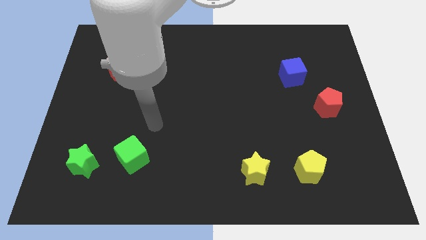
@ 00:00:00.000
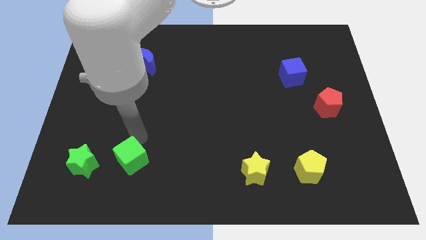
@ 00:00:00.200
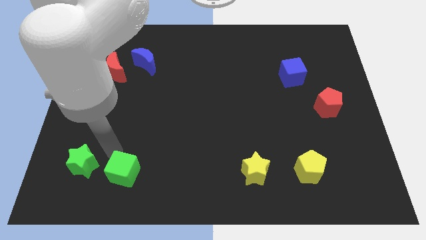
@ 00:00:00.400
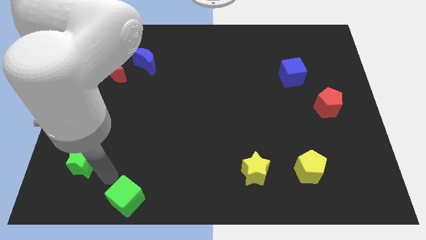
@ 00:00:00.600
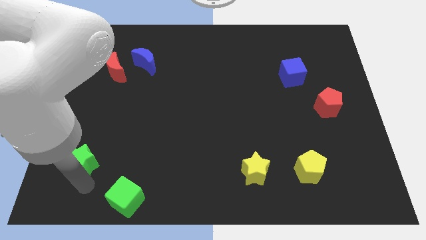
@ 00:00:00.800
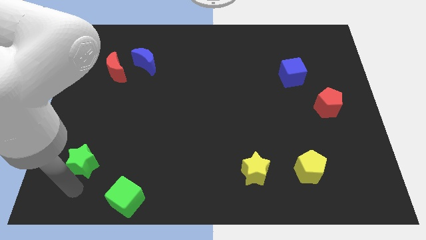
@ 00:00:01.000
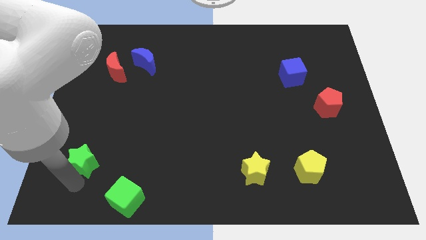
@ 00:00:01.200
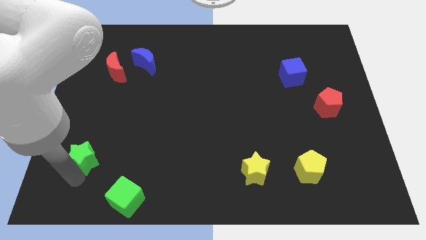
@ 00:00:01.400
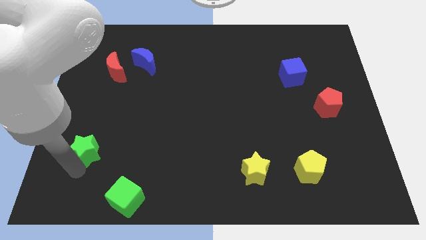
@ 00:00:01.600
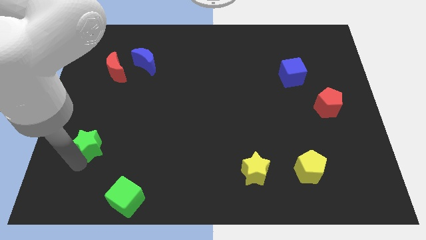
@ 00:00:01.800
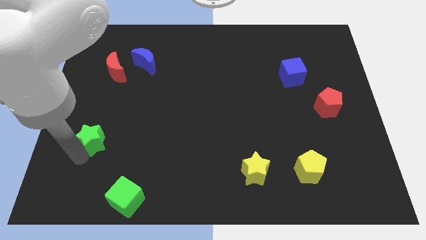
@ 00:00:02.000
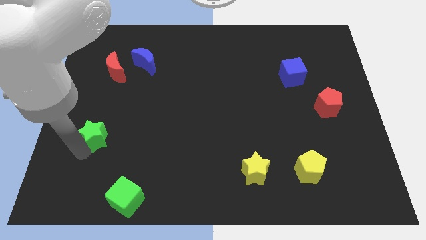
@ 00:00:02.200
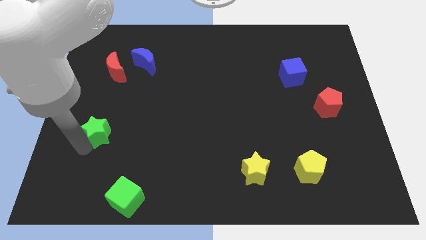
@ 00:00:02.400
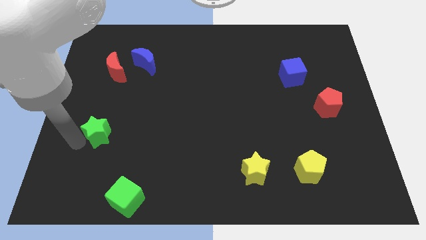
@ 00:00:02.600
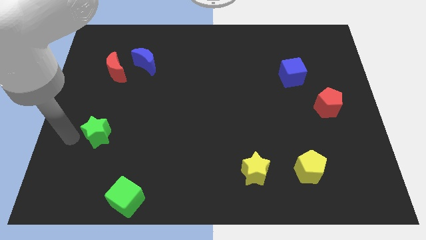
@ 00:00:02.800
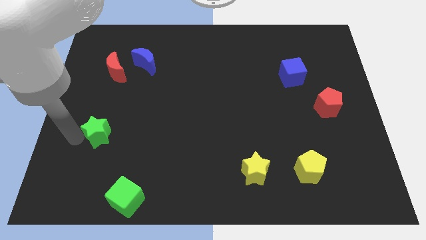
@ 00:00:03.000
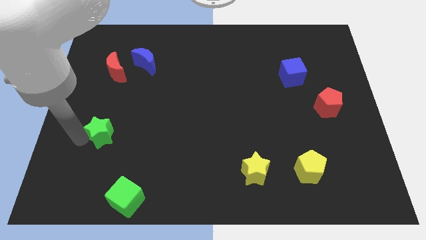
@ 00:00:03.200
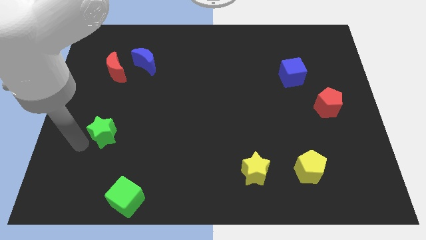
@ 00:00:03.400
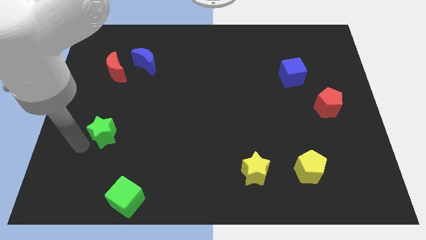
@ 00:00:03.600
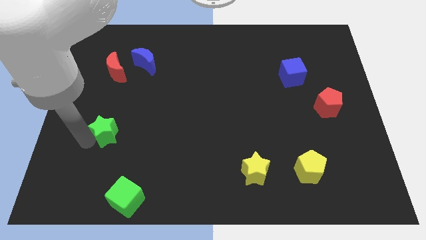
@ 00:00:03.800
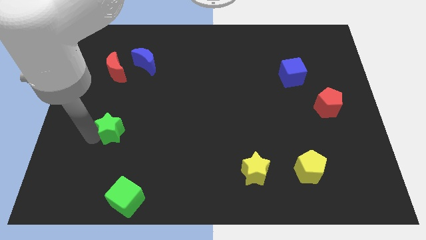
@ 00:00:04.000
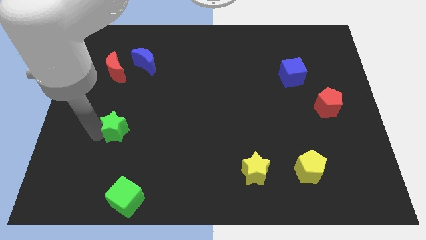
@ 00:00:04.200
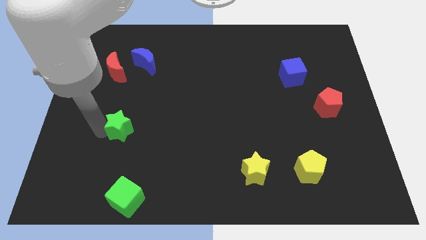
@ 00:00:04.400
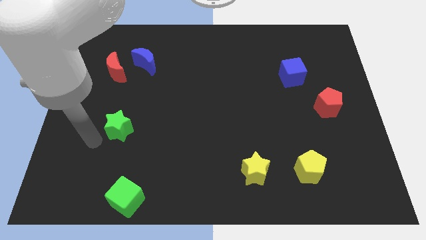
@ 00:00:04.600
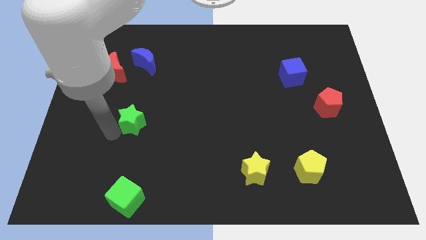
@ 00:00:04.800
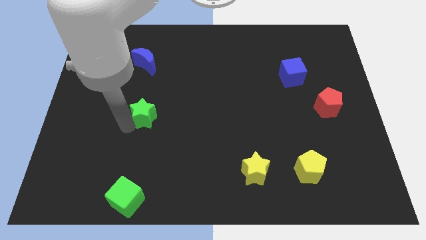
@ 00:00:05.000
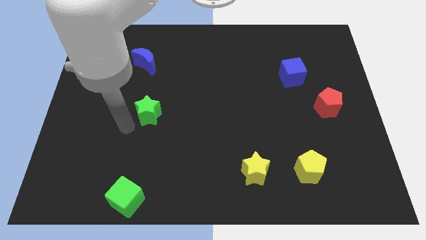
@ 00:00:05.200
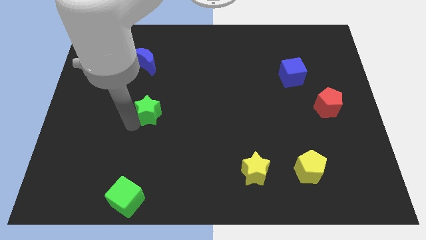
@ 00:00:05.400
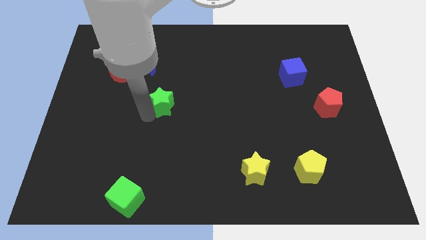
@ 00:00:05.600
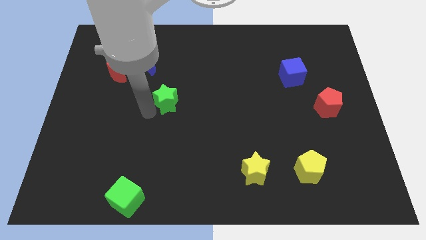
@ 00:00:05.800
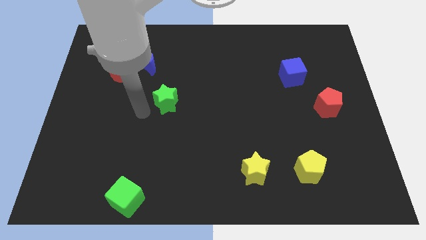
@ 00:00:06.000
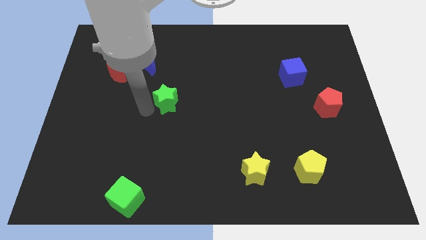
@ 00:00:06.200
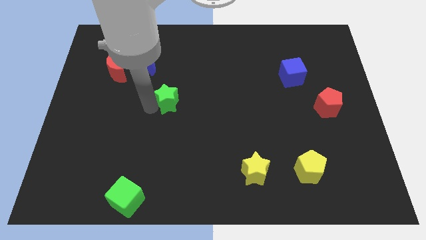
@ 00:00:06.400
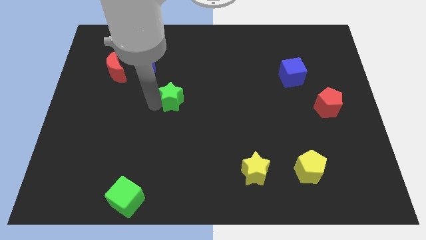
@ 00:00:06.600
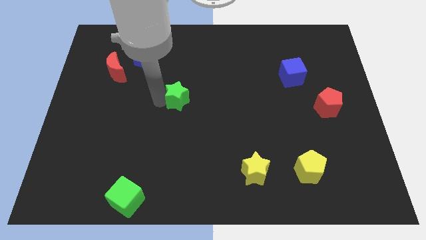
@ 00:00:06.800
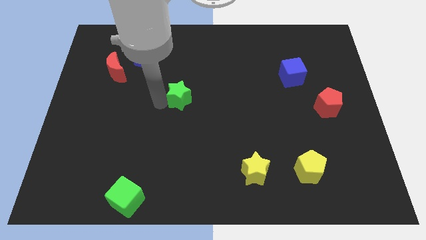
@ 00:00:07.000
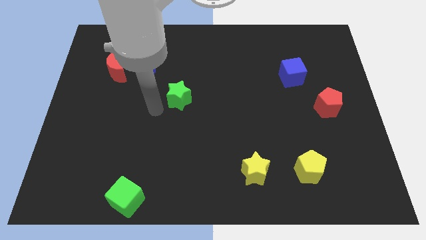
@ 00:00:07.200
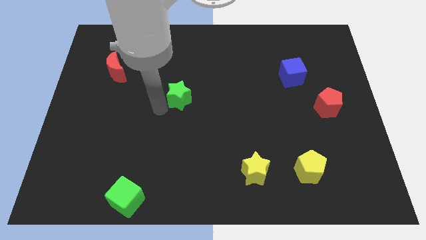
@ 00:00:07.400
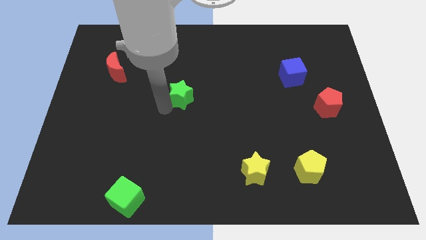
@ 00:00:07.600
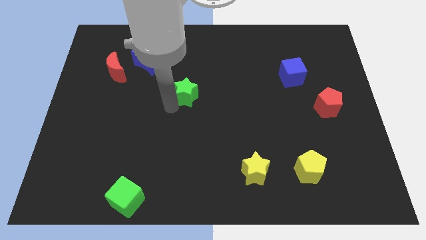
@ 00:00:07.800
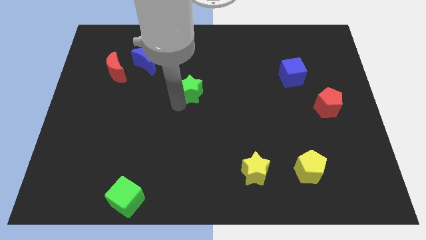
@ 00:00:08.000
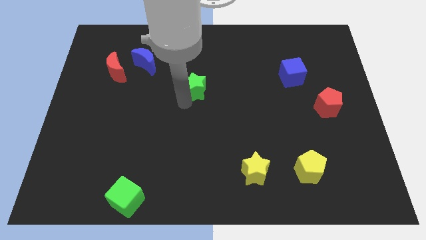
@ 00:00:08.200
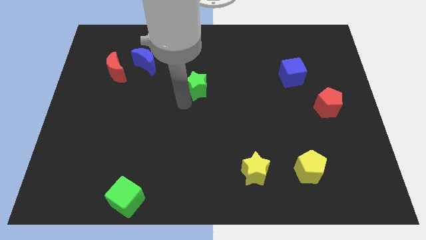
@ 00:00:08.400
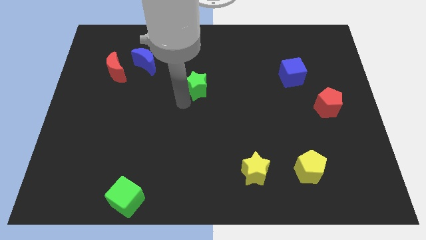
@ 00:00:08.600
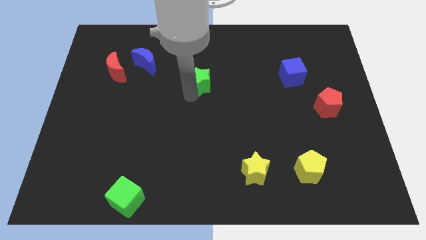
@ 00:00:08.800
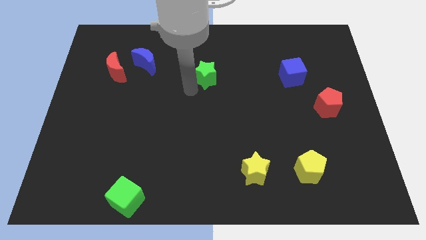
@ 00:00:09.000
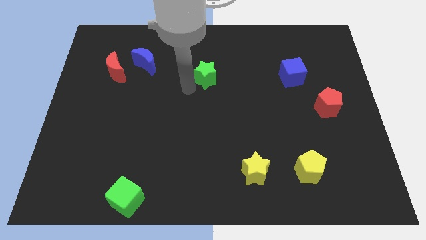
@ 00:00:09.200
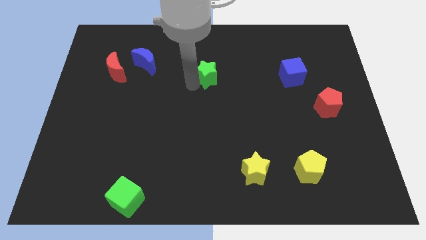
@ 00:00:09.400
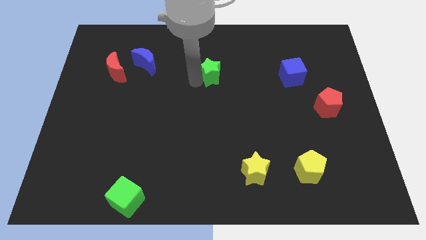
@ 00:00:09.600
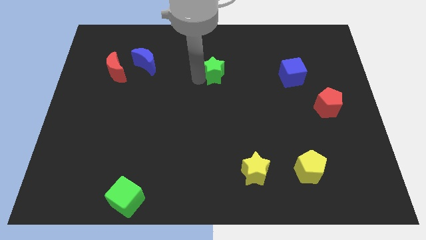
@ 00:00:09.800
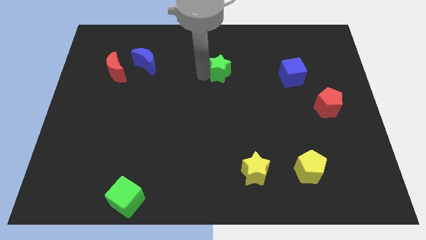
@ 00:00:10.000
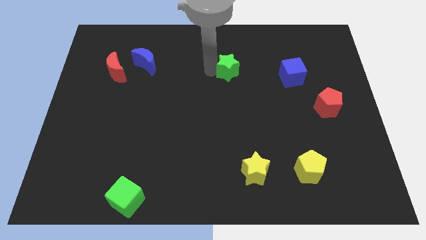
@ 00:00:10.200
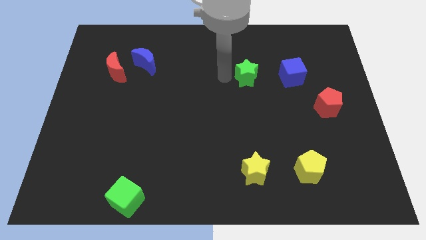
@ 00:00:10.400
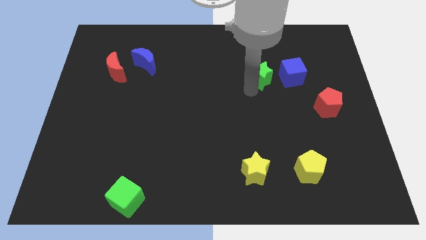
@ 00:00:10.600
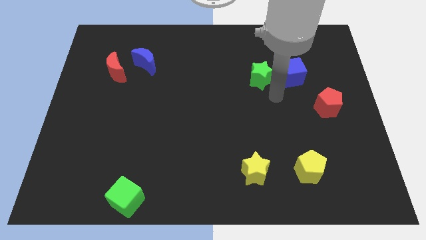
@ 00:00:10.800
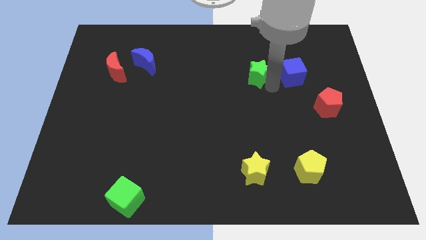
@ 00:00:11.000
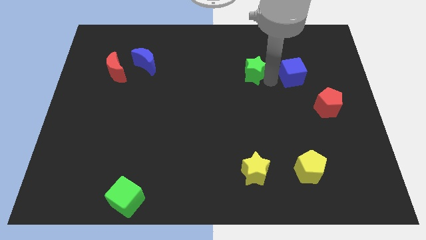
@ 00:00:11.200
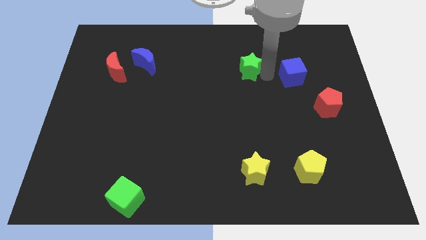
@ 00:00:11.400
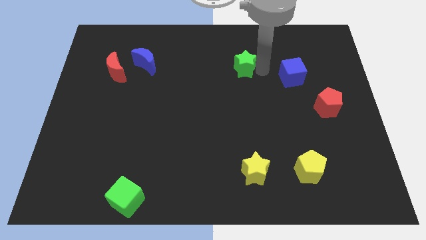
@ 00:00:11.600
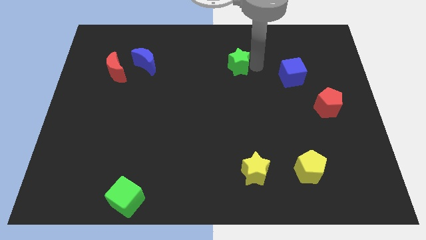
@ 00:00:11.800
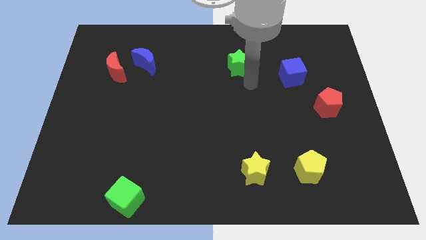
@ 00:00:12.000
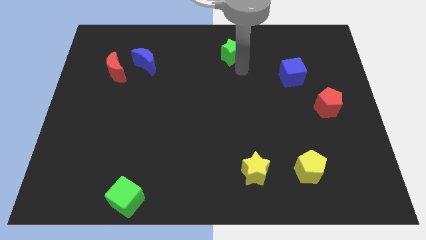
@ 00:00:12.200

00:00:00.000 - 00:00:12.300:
put the green star to the top

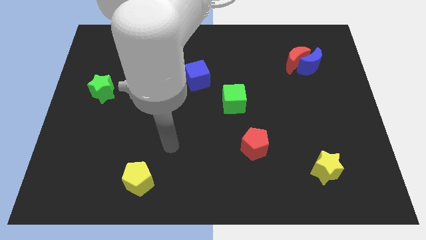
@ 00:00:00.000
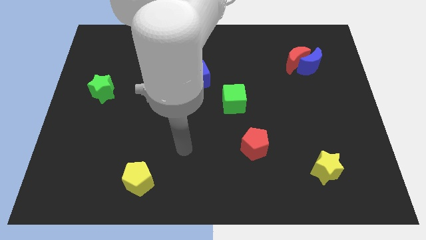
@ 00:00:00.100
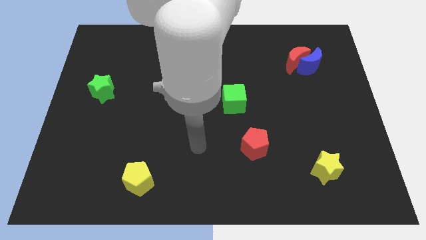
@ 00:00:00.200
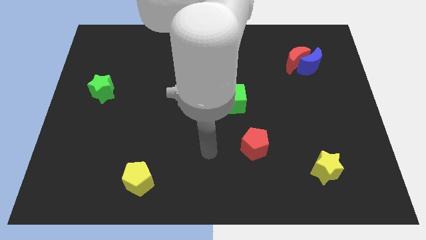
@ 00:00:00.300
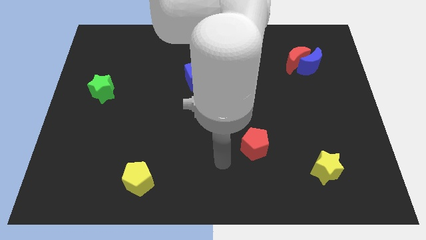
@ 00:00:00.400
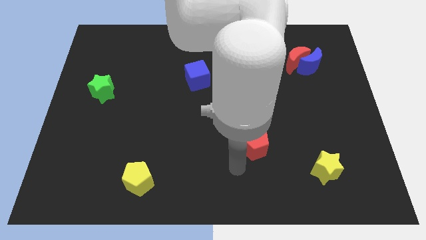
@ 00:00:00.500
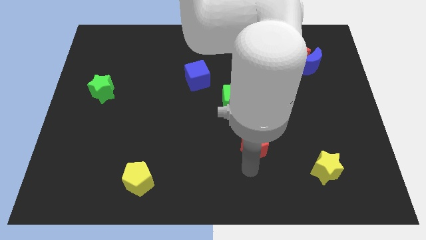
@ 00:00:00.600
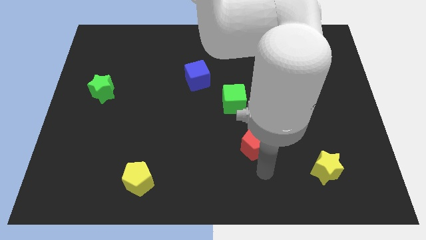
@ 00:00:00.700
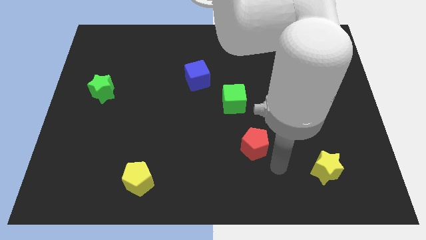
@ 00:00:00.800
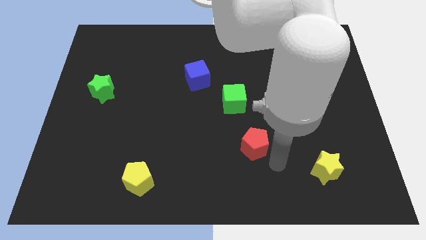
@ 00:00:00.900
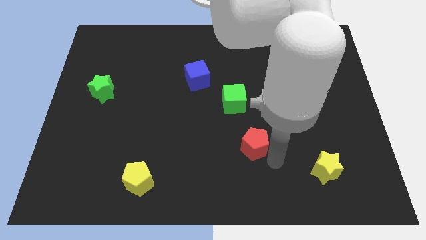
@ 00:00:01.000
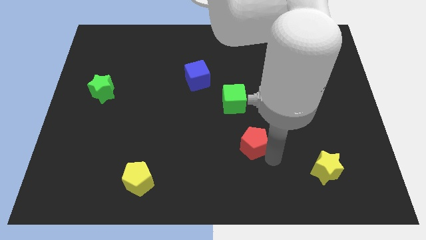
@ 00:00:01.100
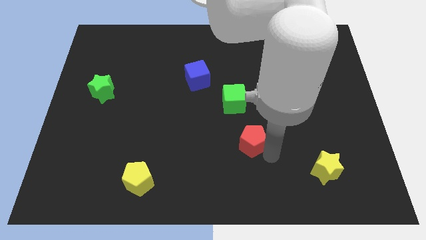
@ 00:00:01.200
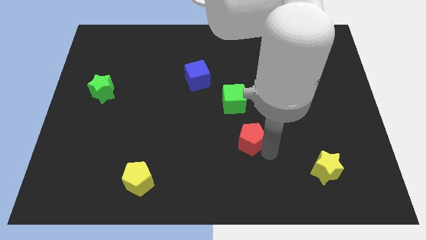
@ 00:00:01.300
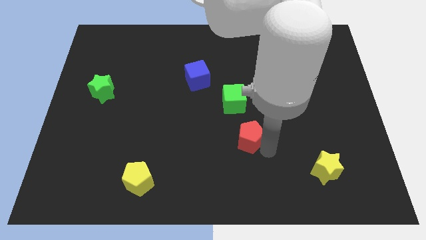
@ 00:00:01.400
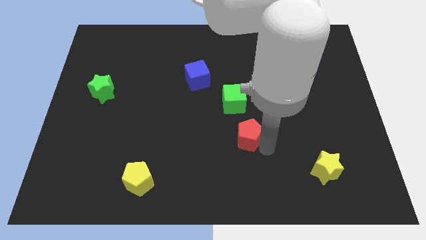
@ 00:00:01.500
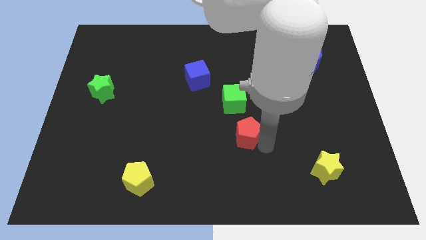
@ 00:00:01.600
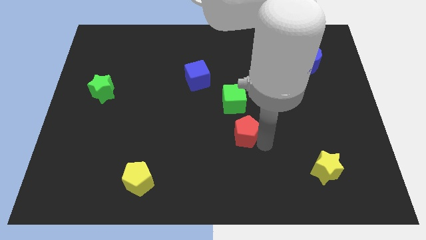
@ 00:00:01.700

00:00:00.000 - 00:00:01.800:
move the red pentagon to the middle of the board
